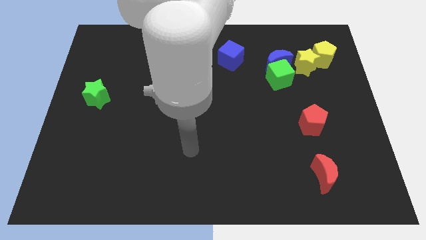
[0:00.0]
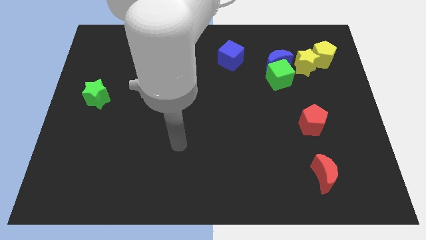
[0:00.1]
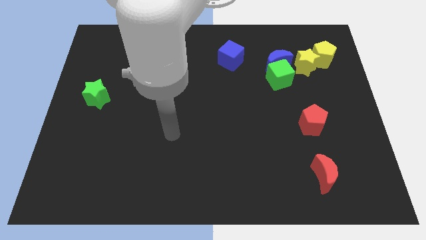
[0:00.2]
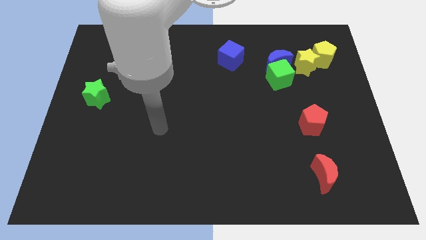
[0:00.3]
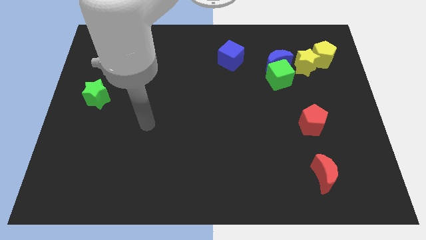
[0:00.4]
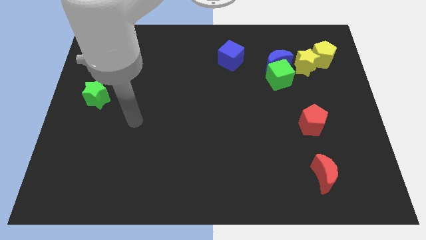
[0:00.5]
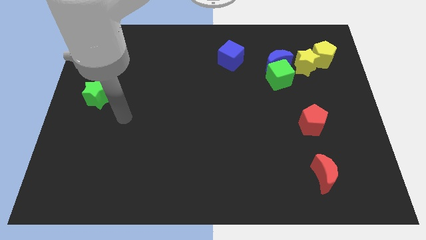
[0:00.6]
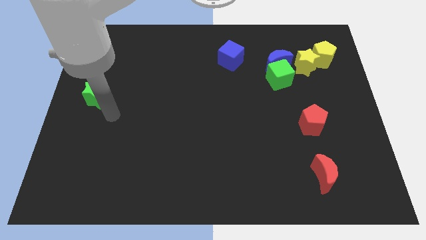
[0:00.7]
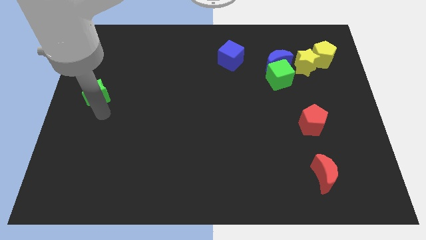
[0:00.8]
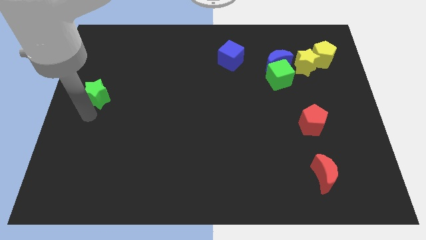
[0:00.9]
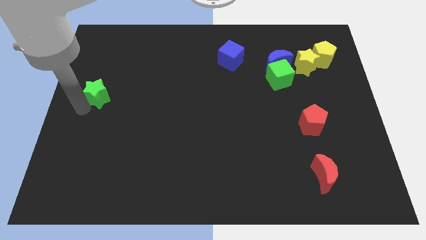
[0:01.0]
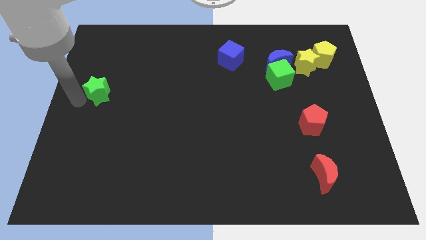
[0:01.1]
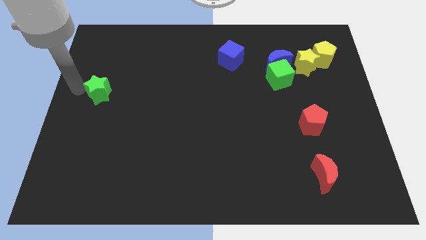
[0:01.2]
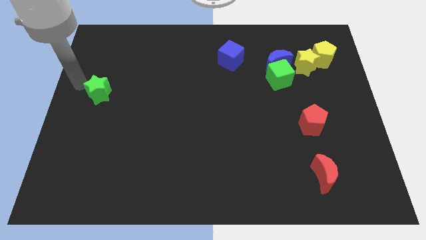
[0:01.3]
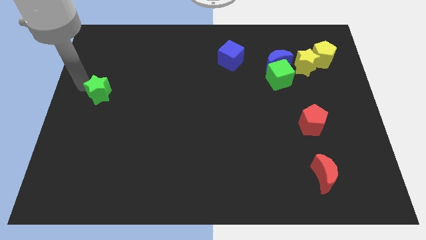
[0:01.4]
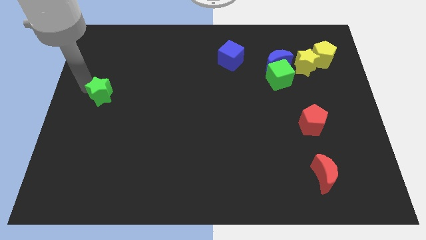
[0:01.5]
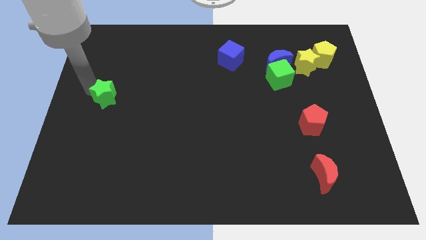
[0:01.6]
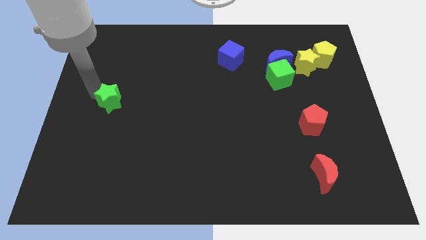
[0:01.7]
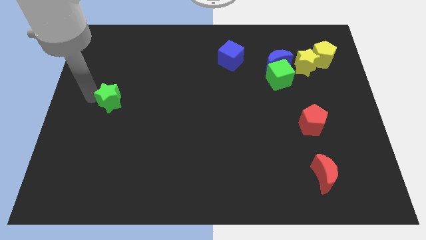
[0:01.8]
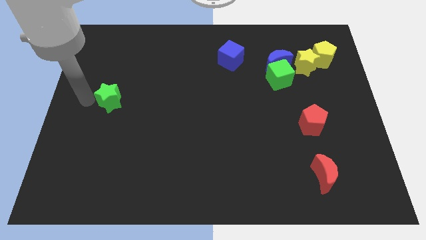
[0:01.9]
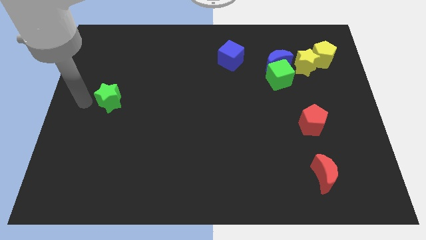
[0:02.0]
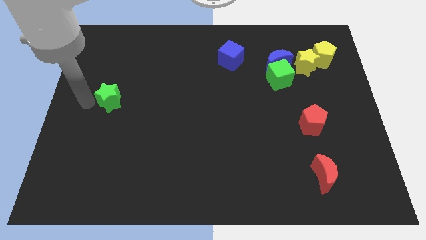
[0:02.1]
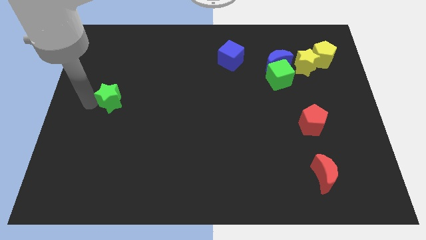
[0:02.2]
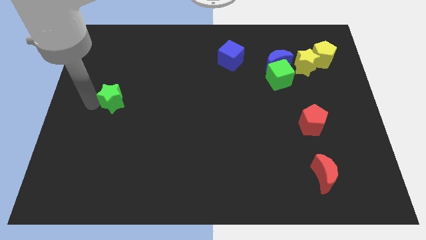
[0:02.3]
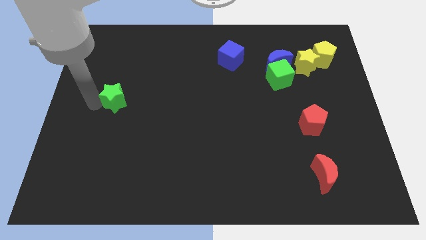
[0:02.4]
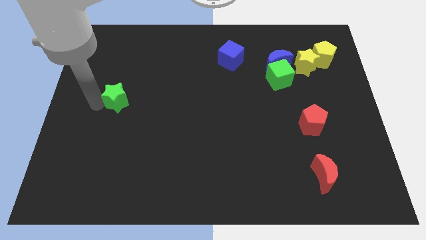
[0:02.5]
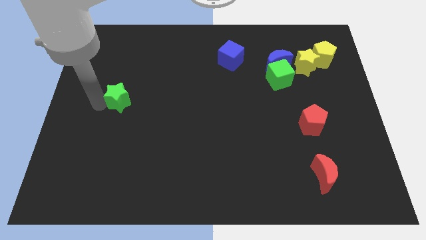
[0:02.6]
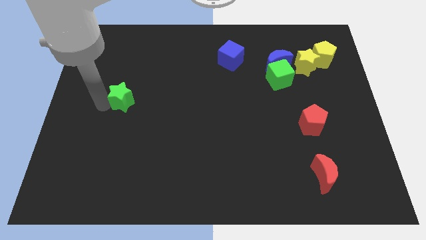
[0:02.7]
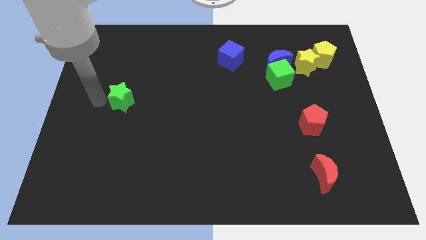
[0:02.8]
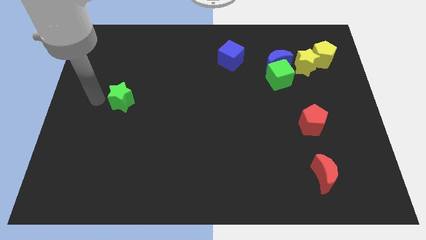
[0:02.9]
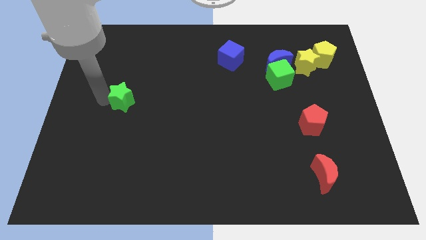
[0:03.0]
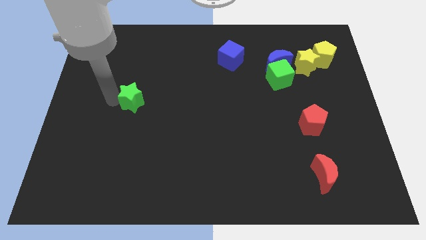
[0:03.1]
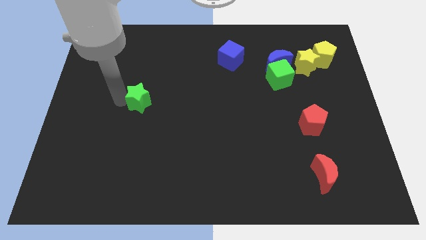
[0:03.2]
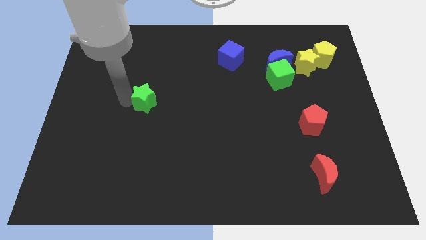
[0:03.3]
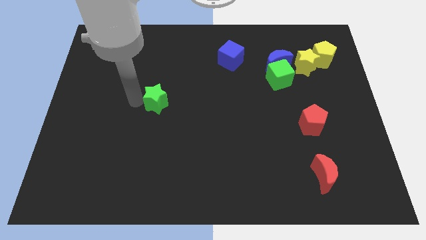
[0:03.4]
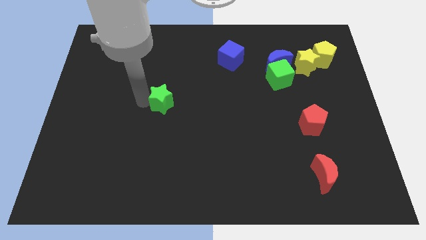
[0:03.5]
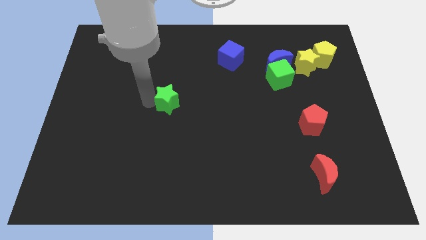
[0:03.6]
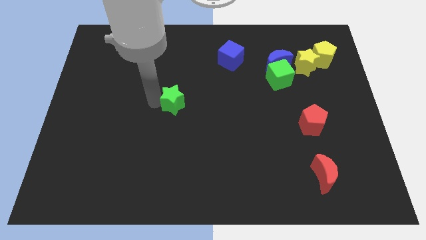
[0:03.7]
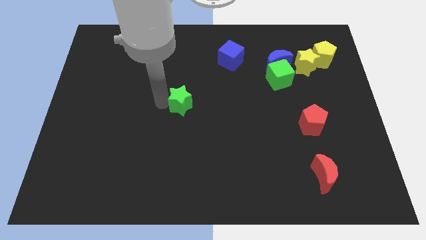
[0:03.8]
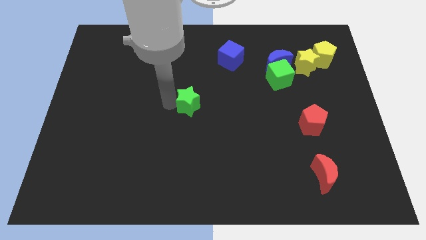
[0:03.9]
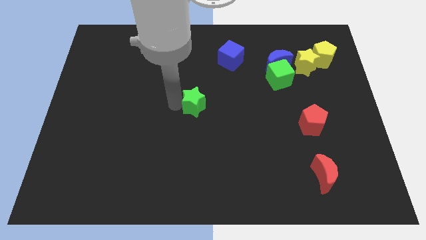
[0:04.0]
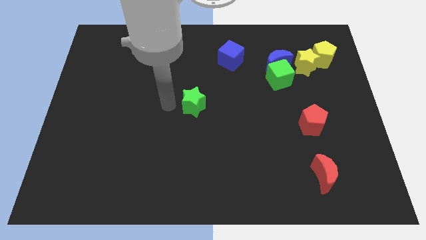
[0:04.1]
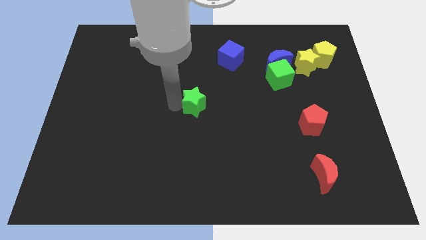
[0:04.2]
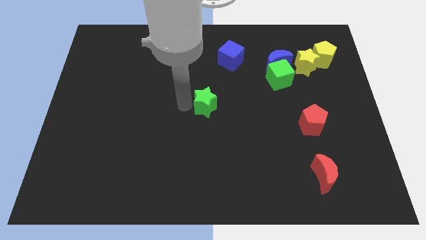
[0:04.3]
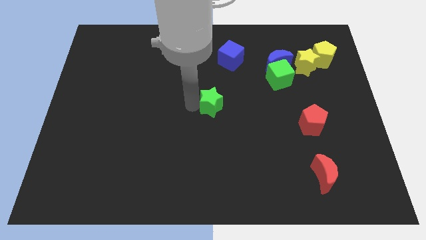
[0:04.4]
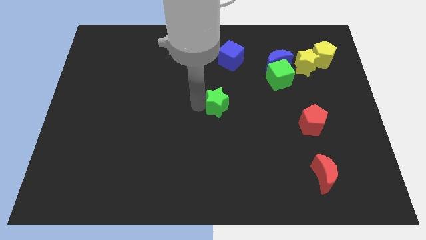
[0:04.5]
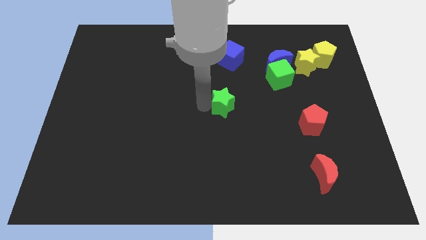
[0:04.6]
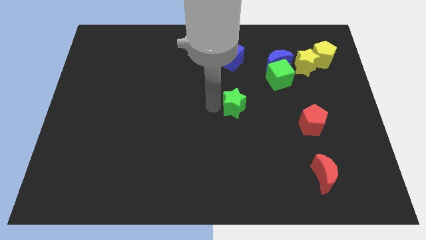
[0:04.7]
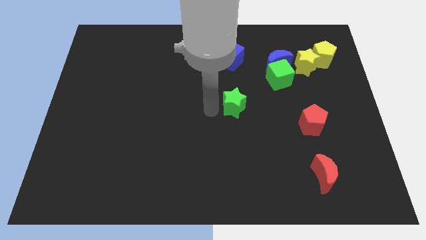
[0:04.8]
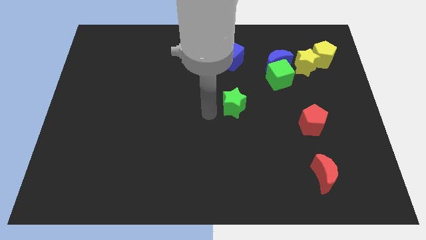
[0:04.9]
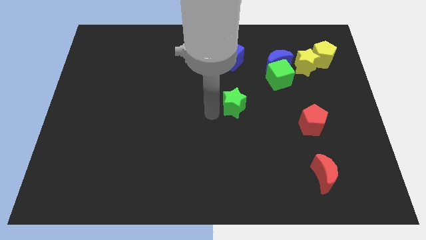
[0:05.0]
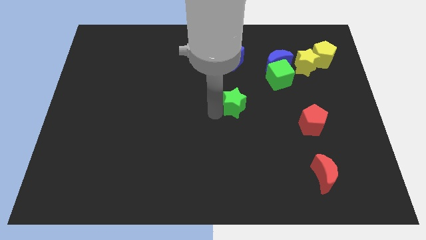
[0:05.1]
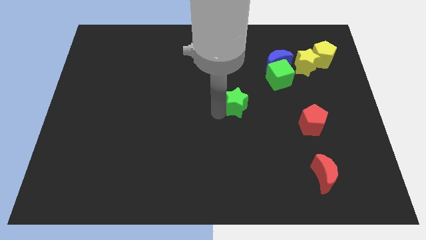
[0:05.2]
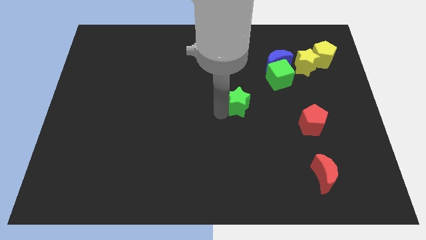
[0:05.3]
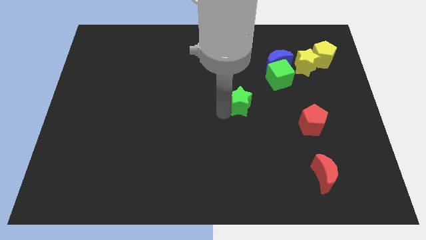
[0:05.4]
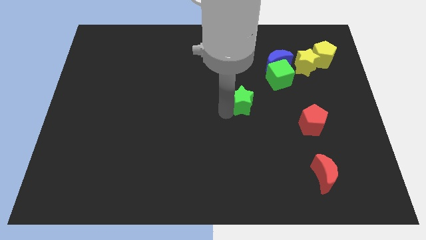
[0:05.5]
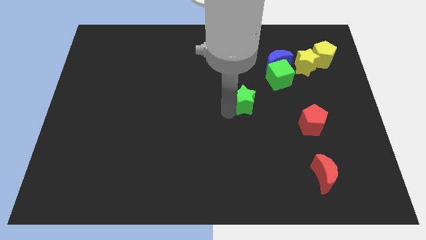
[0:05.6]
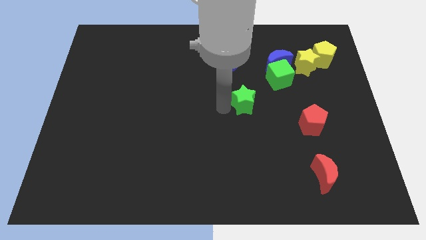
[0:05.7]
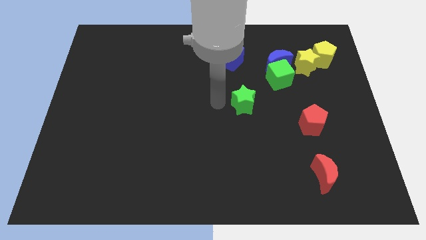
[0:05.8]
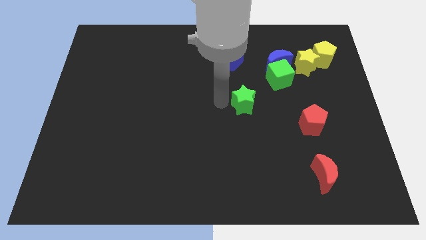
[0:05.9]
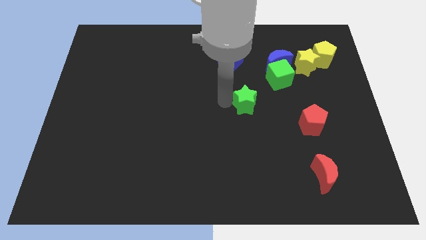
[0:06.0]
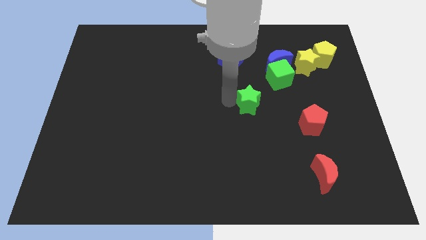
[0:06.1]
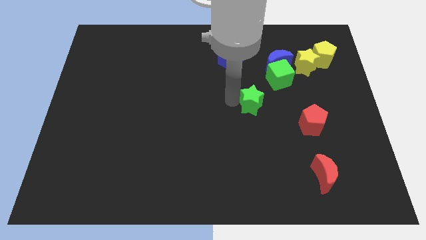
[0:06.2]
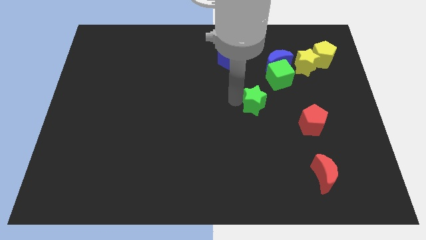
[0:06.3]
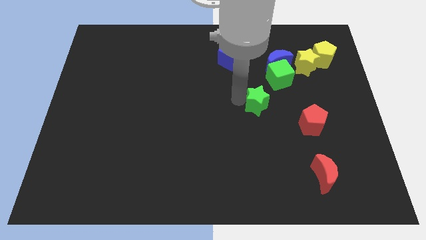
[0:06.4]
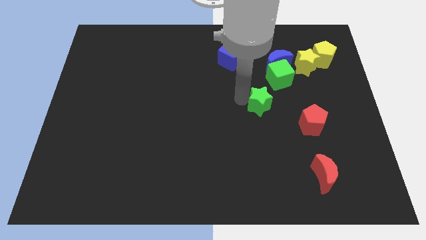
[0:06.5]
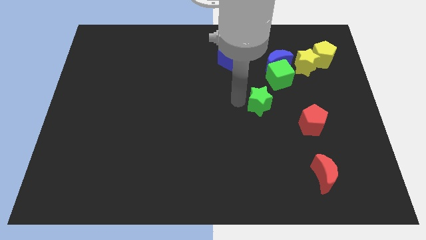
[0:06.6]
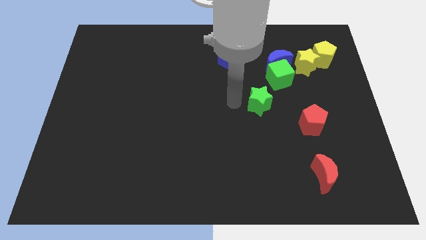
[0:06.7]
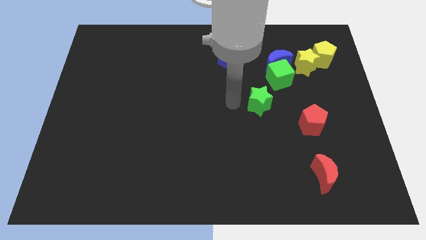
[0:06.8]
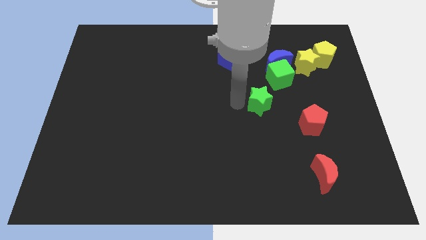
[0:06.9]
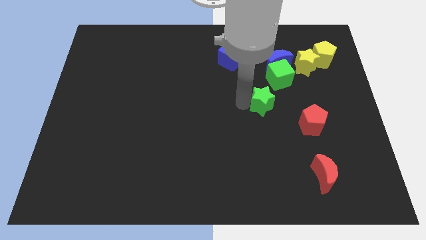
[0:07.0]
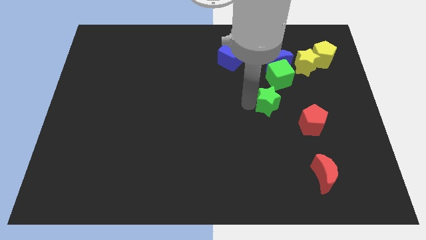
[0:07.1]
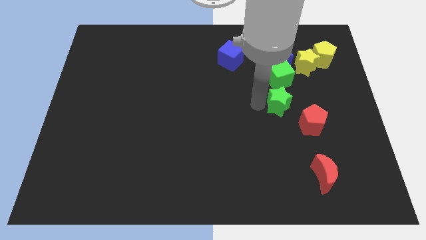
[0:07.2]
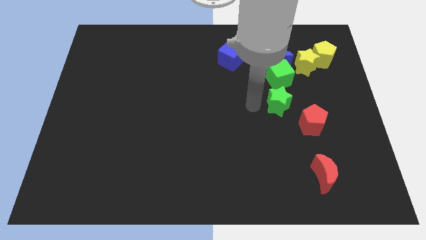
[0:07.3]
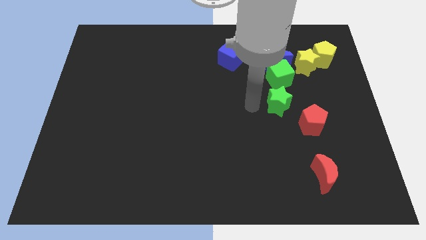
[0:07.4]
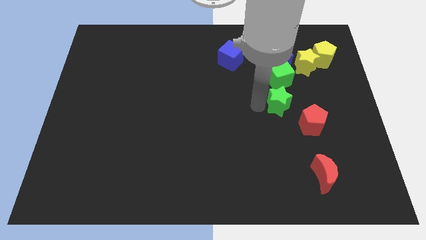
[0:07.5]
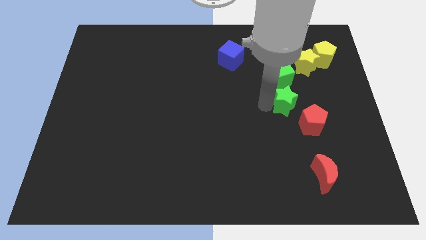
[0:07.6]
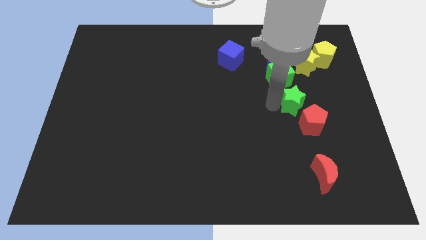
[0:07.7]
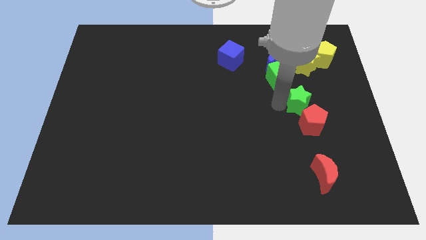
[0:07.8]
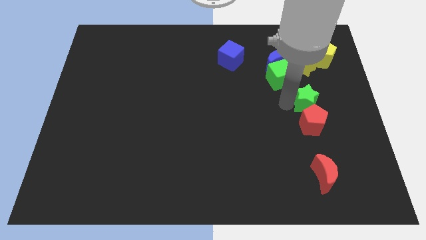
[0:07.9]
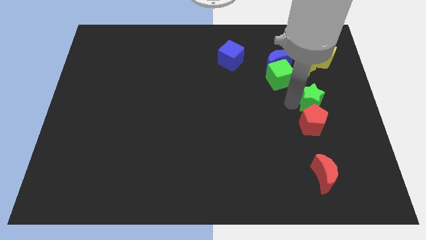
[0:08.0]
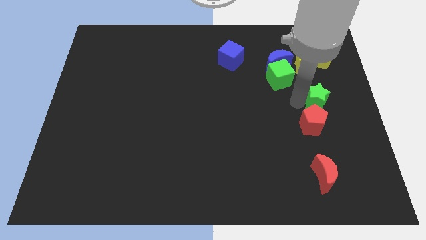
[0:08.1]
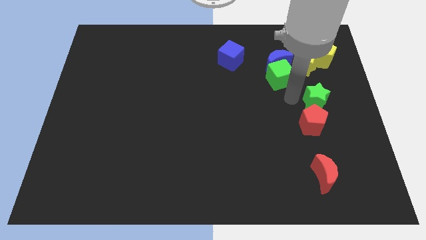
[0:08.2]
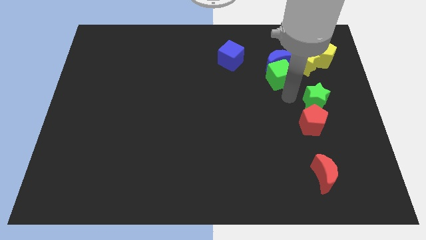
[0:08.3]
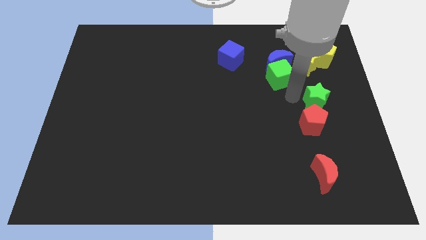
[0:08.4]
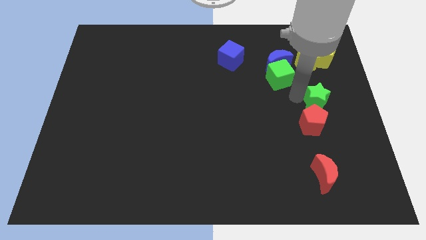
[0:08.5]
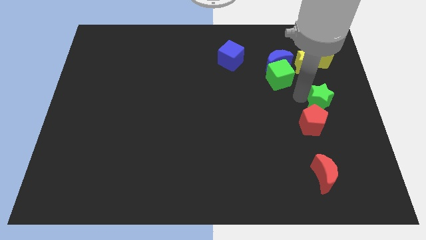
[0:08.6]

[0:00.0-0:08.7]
move the green star to the right side
